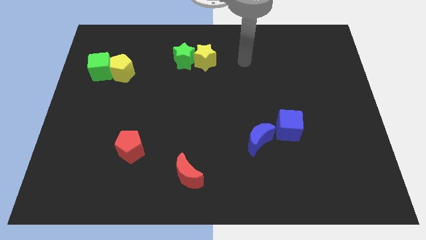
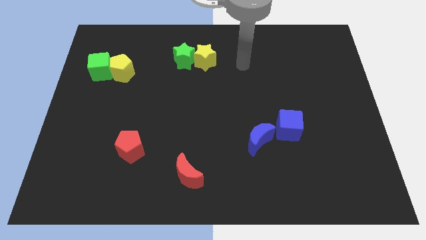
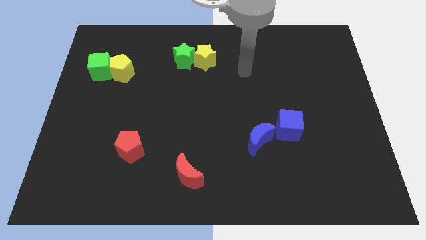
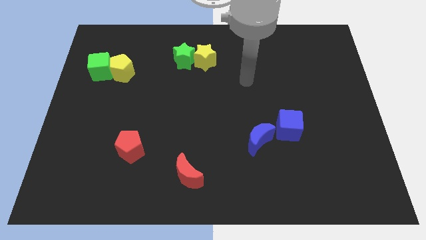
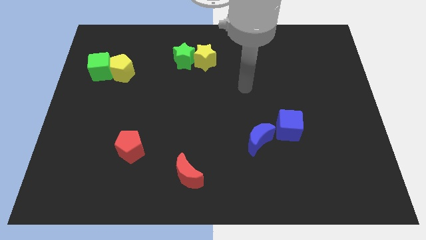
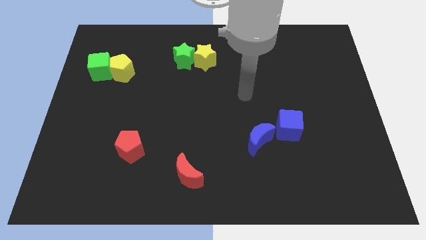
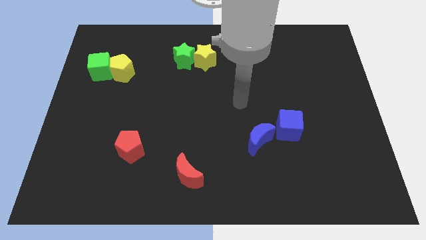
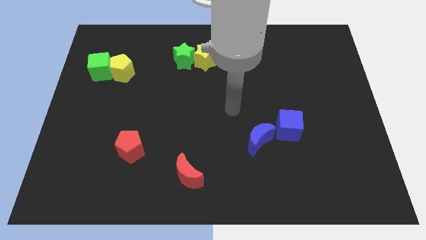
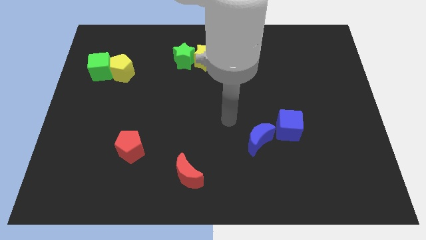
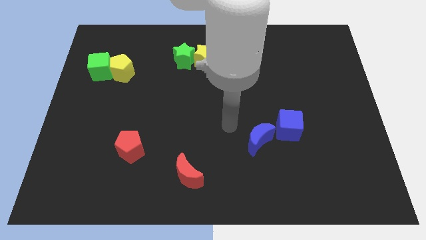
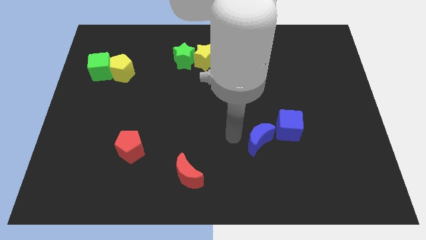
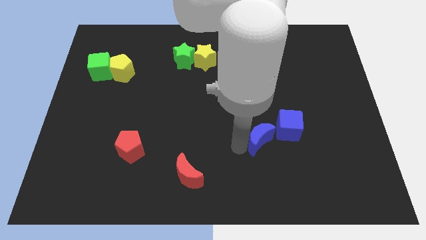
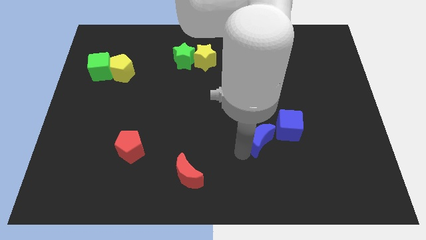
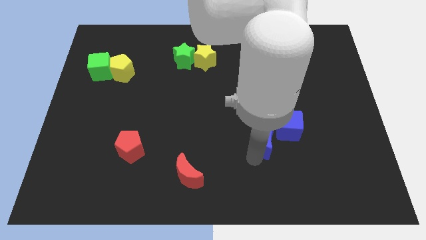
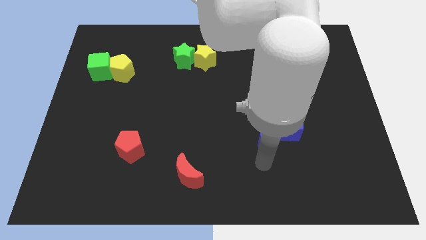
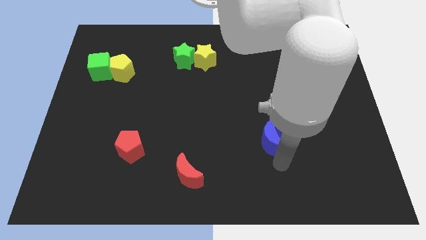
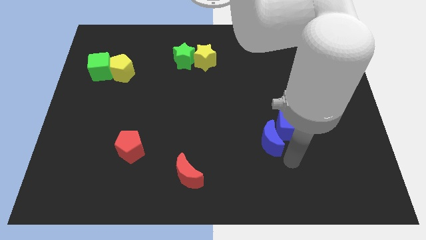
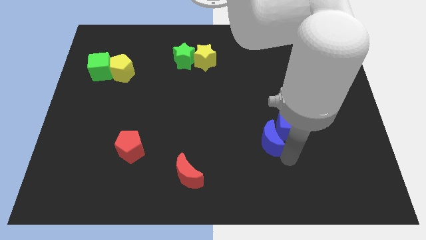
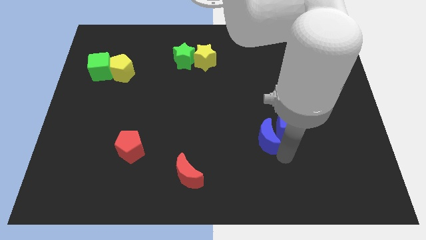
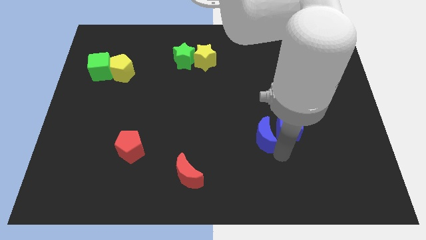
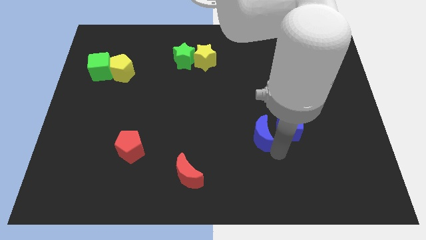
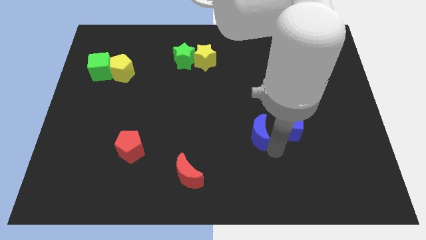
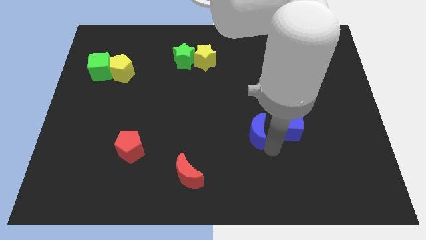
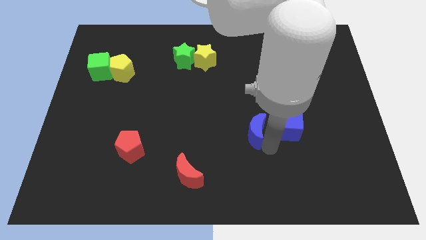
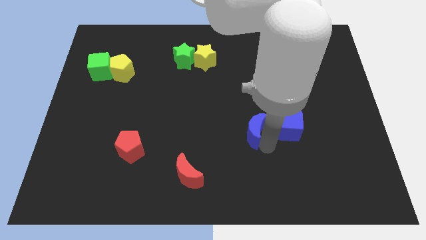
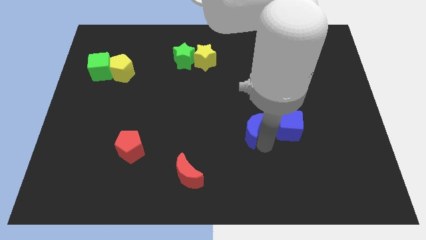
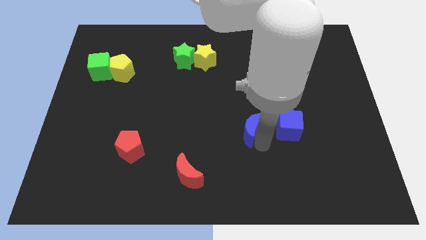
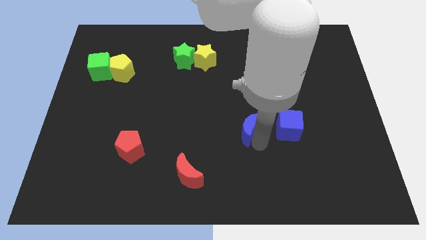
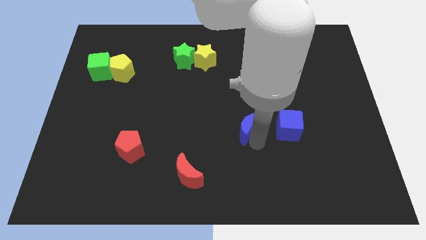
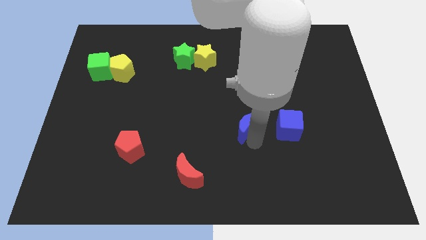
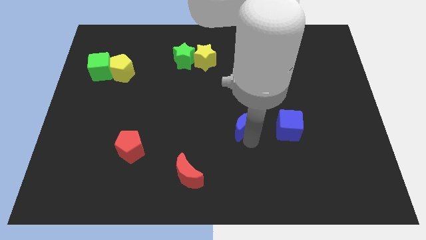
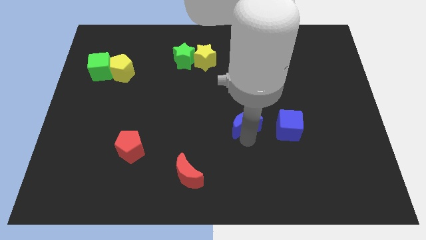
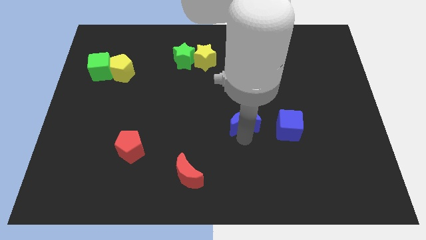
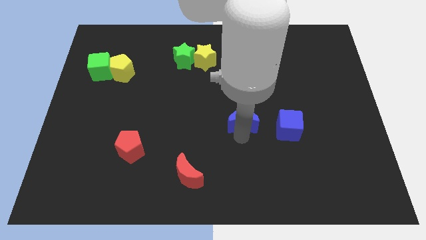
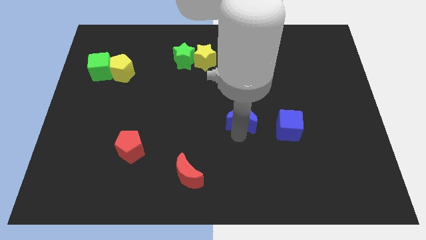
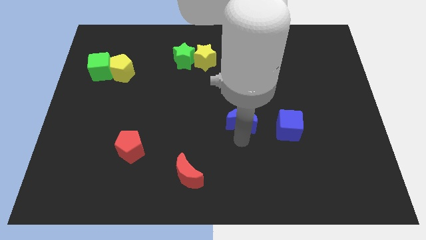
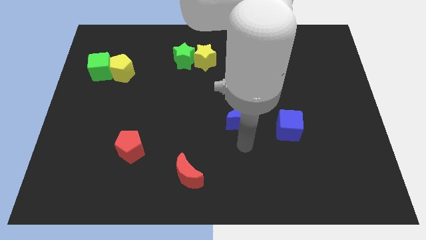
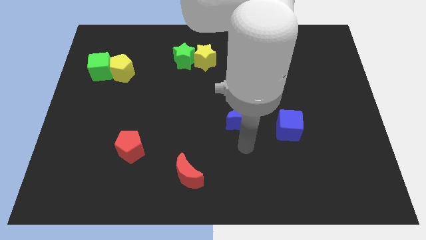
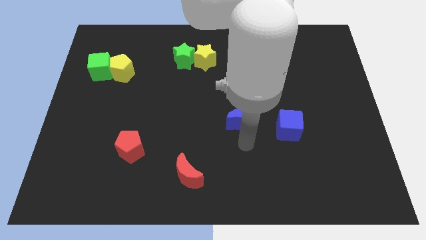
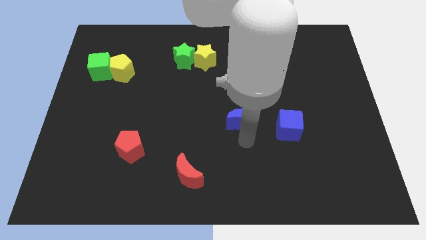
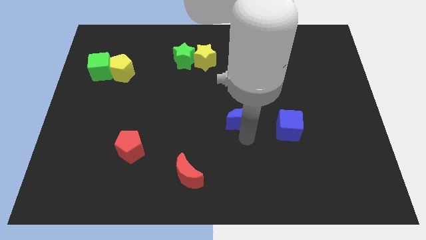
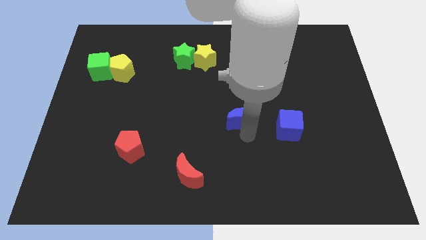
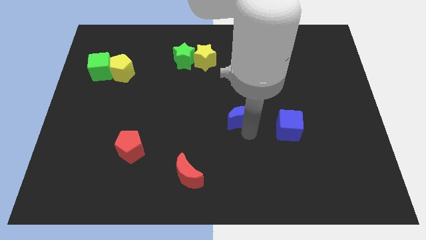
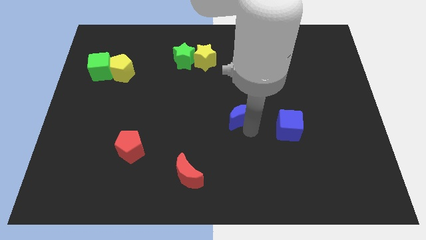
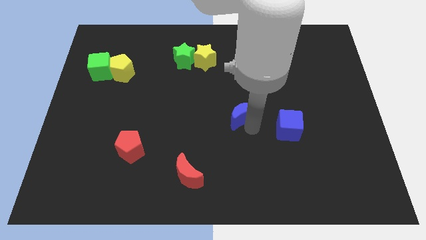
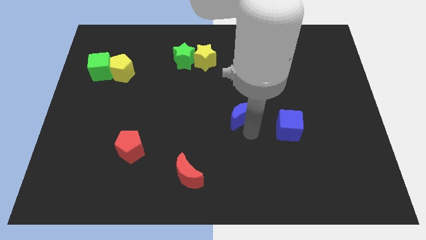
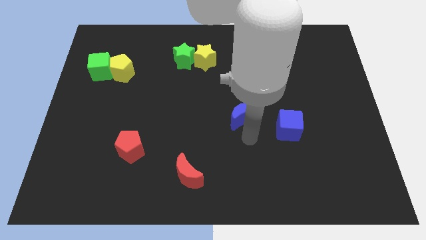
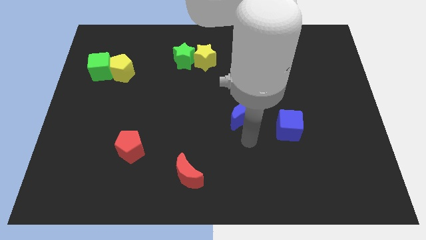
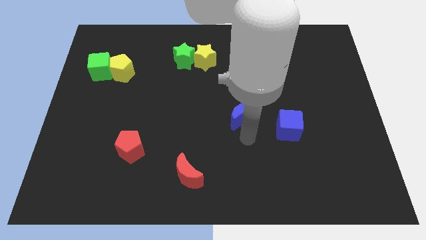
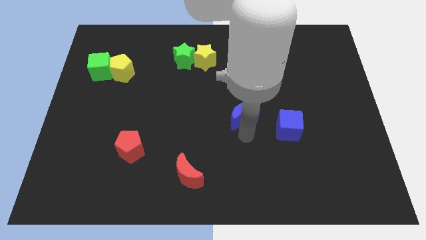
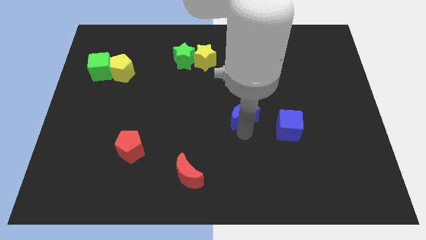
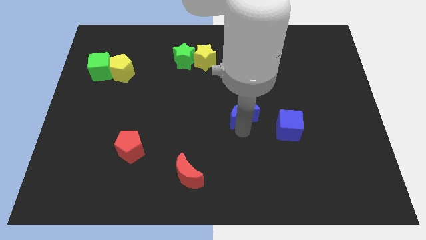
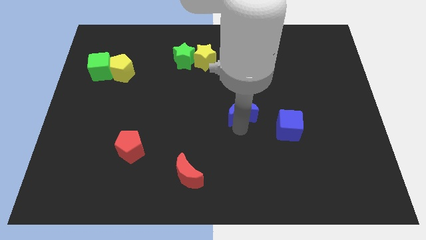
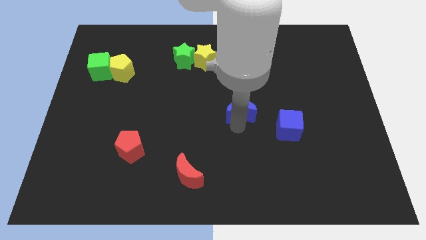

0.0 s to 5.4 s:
move the blue moon upwards somewhat

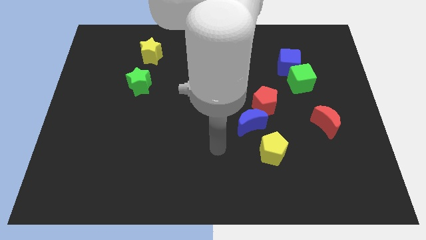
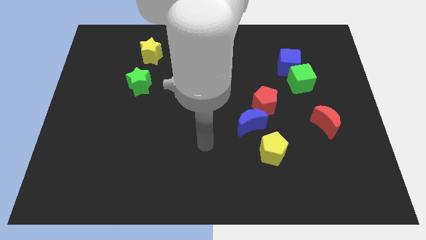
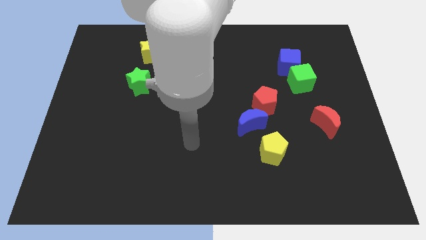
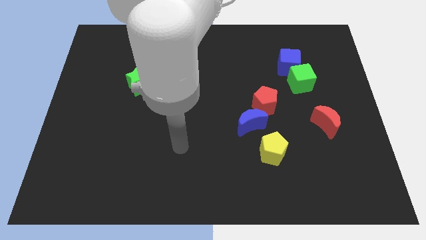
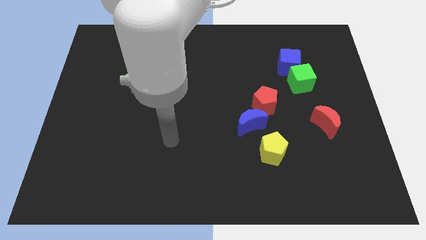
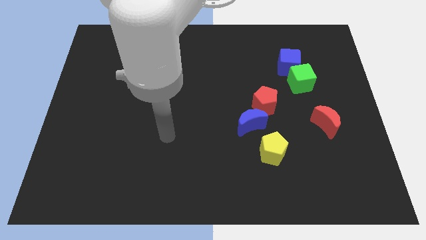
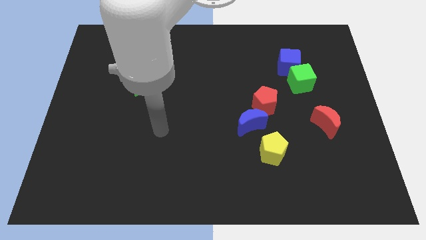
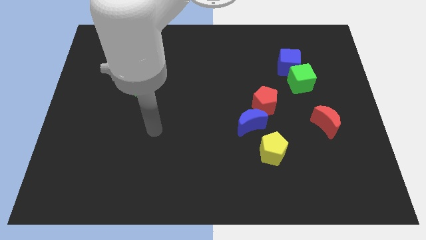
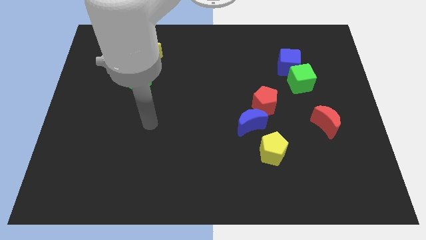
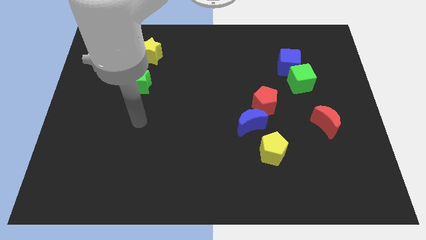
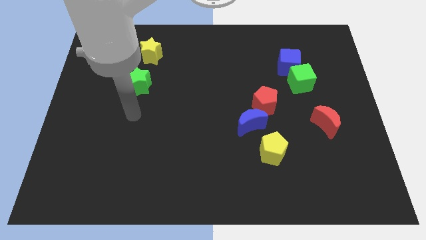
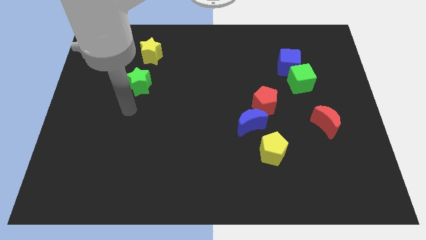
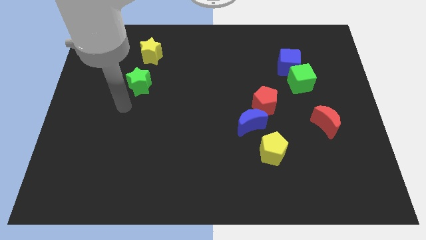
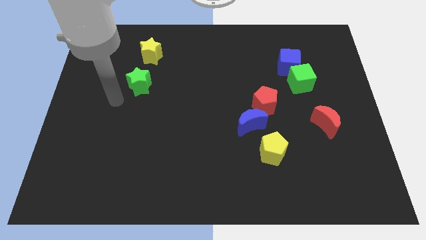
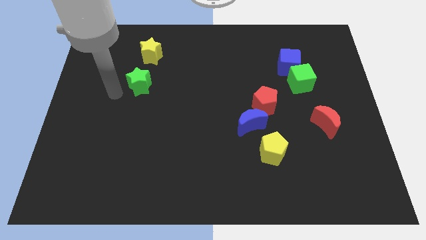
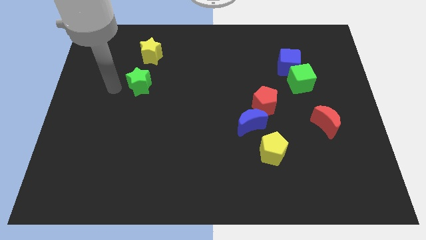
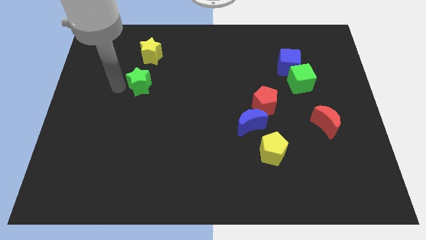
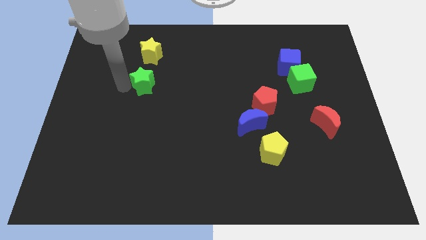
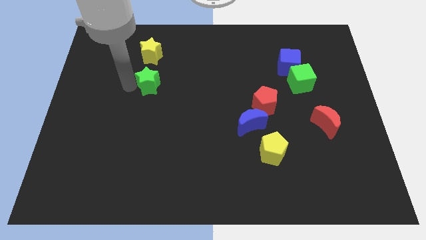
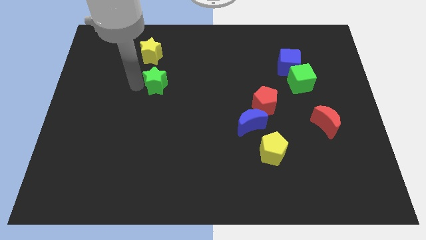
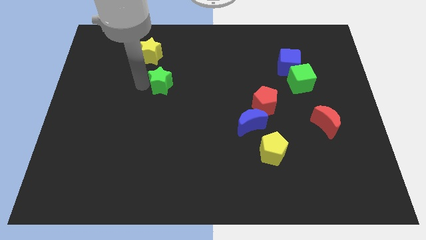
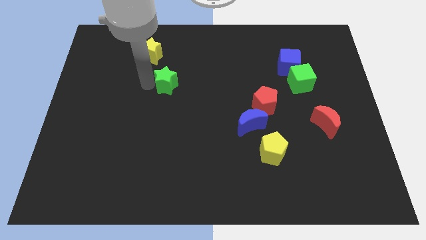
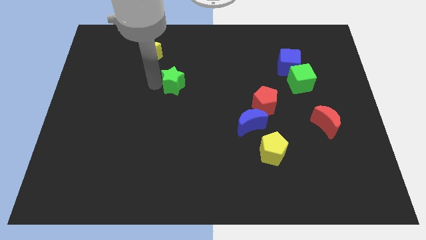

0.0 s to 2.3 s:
move the green star to the right a bit
